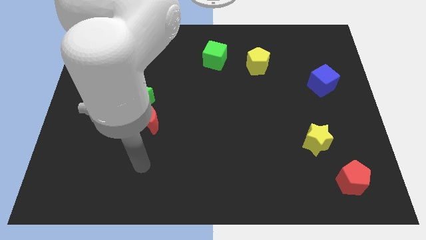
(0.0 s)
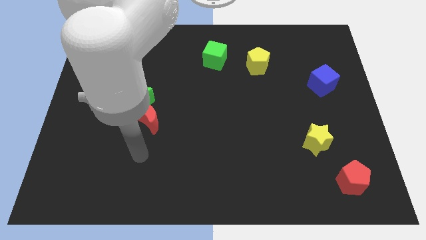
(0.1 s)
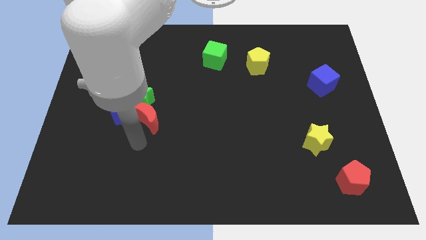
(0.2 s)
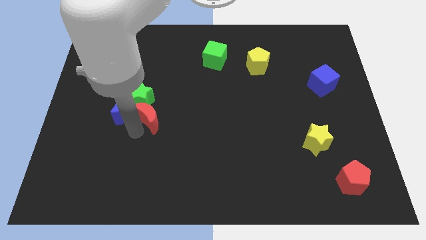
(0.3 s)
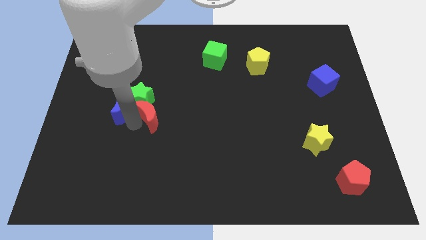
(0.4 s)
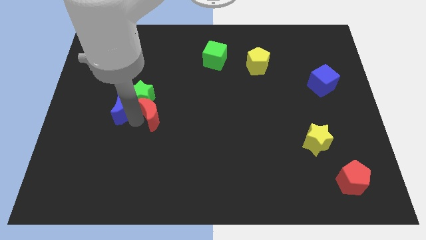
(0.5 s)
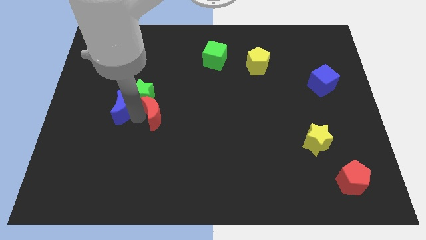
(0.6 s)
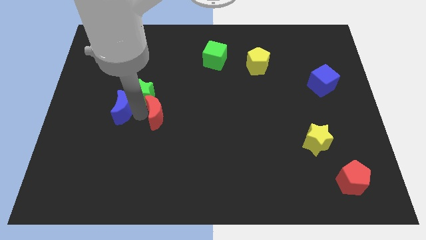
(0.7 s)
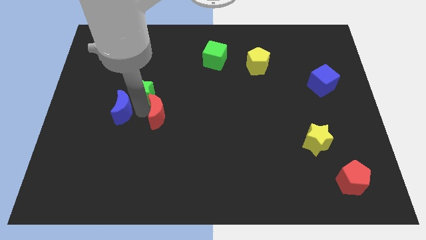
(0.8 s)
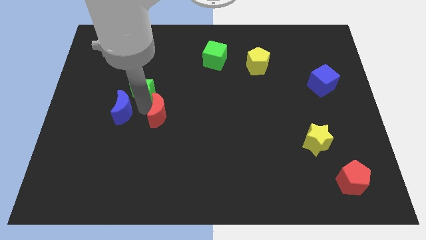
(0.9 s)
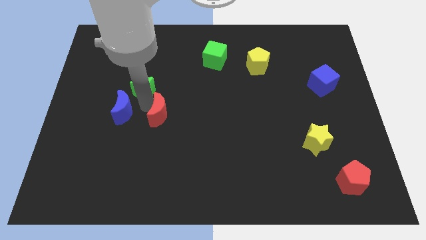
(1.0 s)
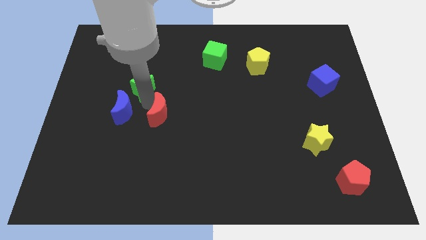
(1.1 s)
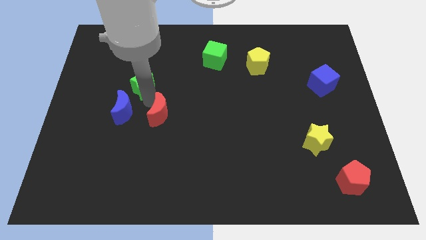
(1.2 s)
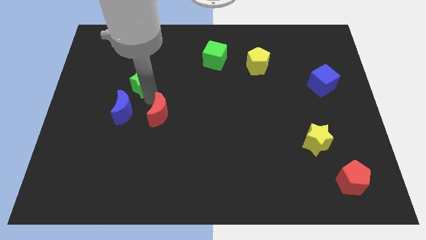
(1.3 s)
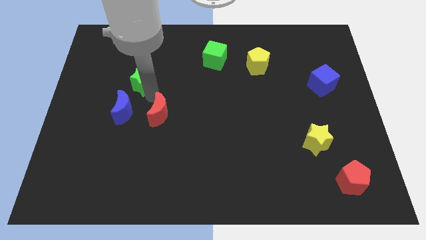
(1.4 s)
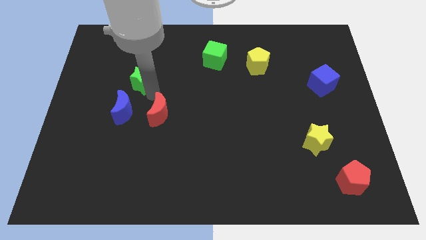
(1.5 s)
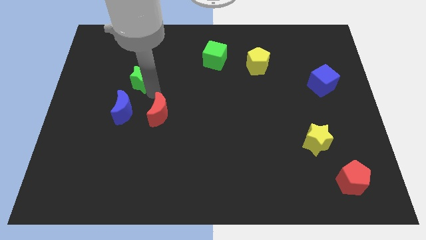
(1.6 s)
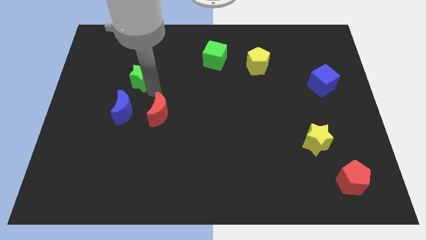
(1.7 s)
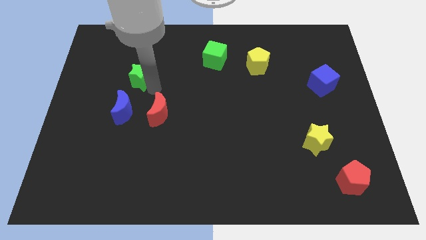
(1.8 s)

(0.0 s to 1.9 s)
pull the green star apart from the blue moon and red moon

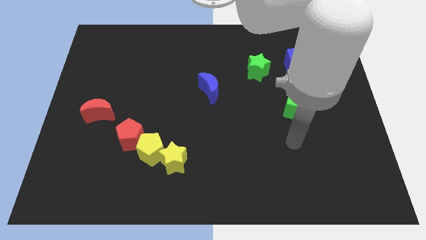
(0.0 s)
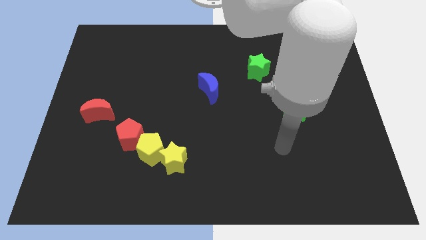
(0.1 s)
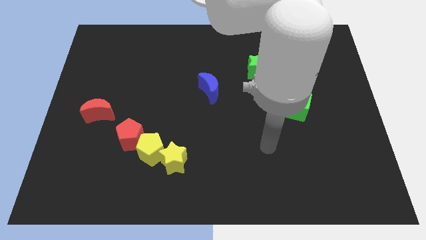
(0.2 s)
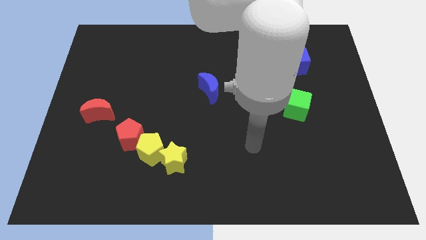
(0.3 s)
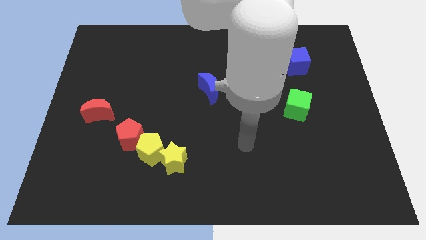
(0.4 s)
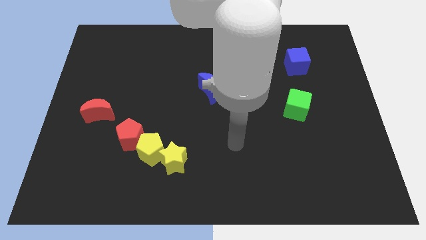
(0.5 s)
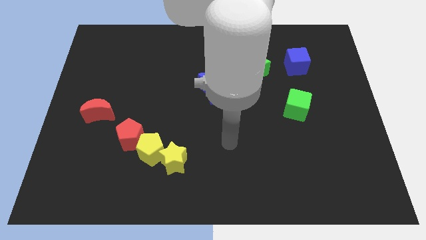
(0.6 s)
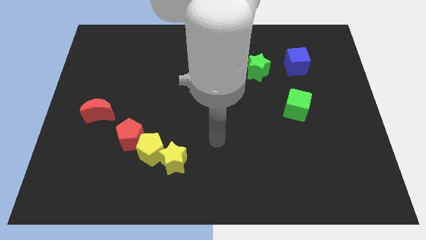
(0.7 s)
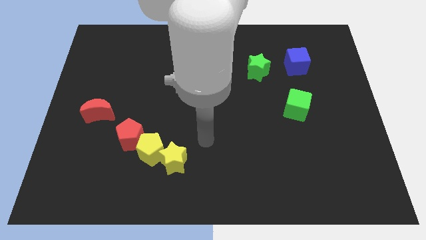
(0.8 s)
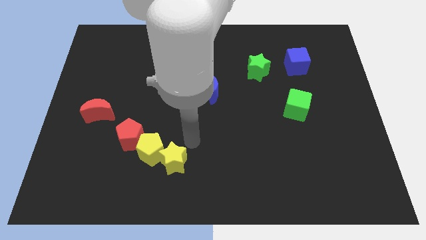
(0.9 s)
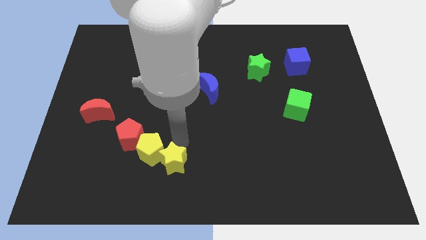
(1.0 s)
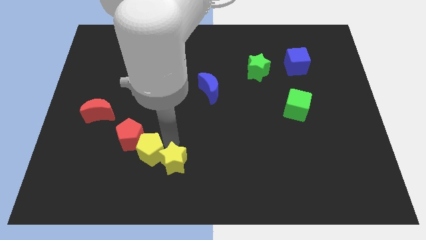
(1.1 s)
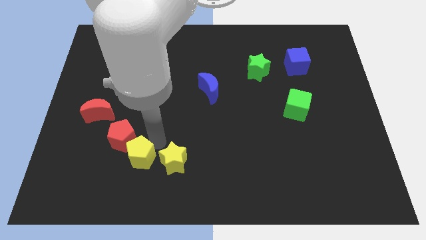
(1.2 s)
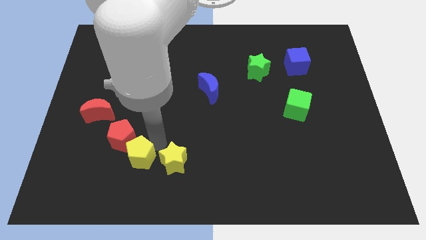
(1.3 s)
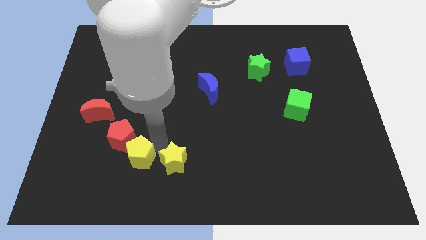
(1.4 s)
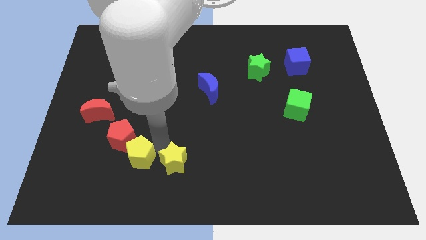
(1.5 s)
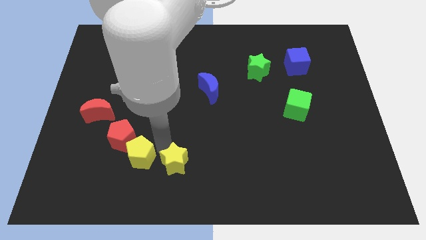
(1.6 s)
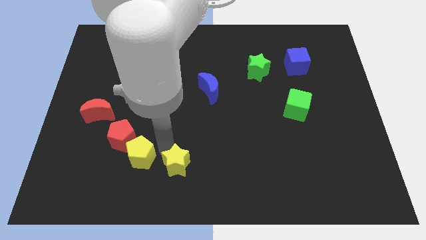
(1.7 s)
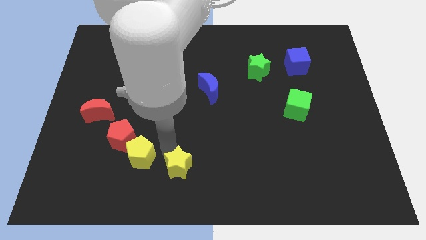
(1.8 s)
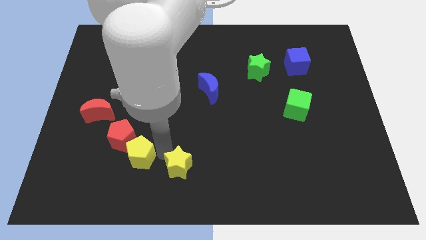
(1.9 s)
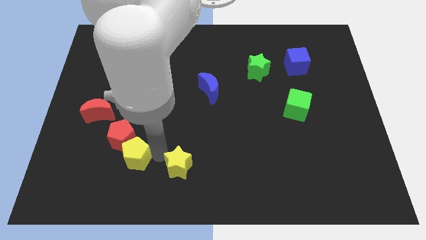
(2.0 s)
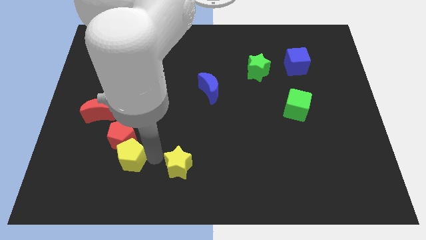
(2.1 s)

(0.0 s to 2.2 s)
separate the yellow star from the yellow pentagon

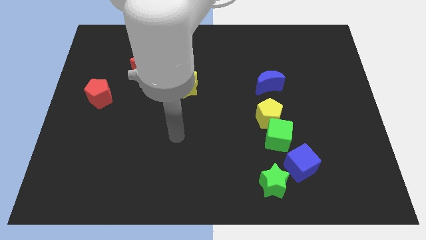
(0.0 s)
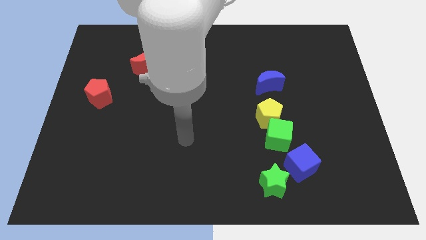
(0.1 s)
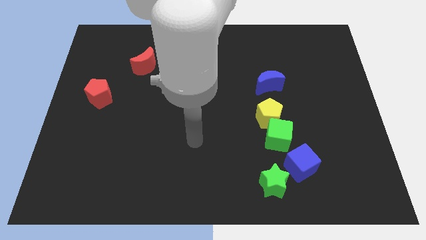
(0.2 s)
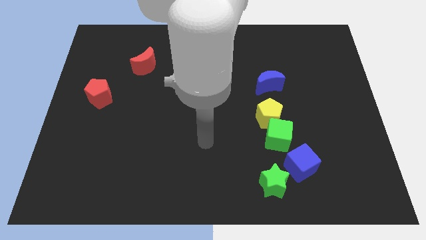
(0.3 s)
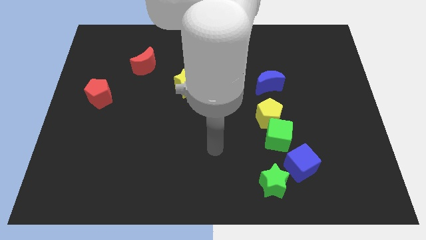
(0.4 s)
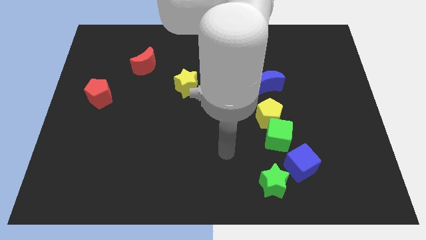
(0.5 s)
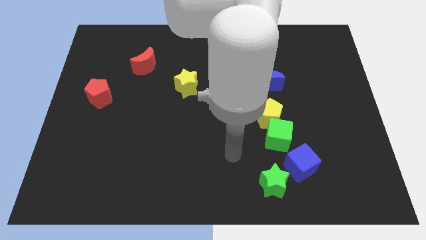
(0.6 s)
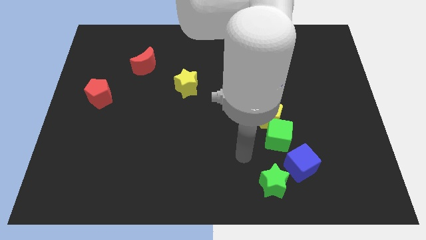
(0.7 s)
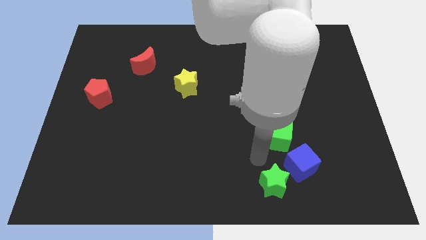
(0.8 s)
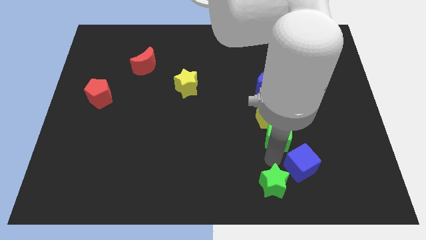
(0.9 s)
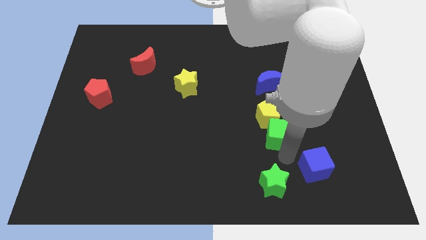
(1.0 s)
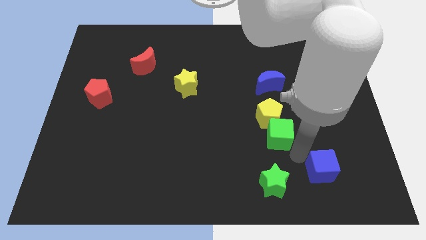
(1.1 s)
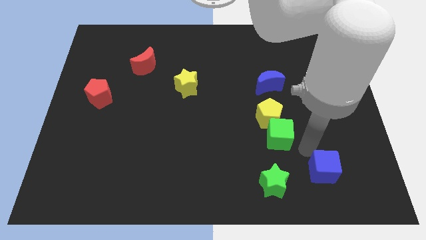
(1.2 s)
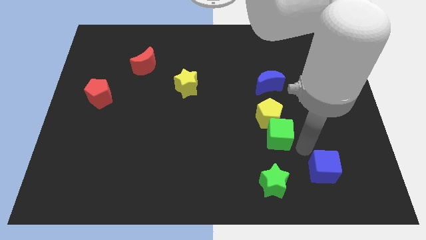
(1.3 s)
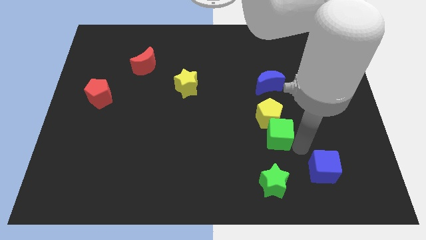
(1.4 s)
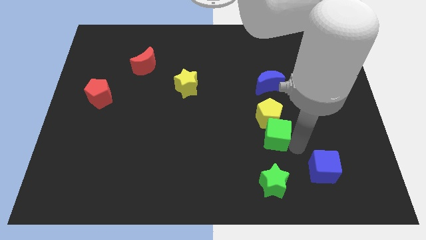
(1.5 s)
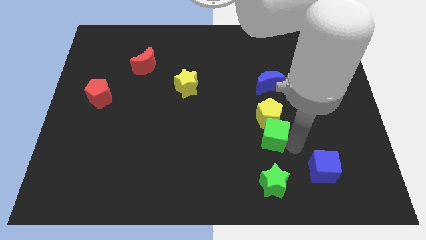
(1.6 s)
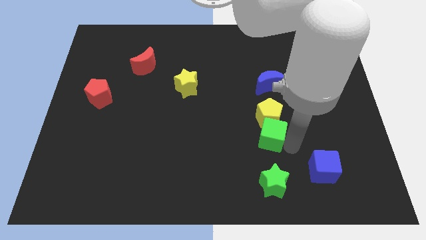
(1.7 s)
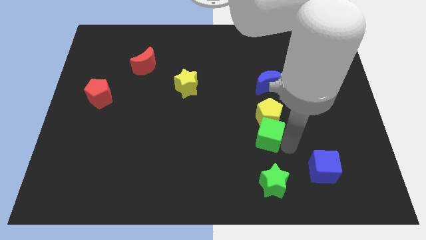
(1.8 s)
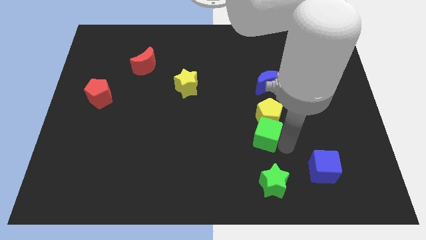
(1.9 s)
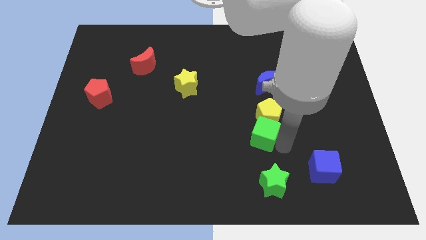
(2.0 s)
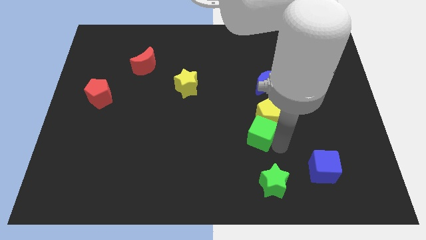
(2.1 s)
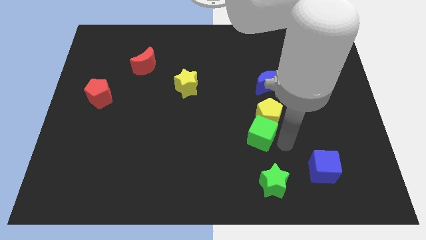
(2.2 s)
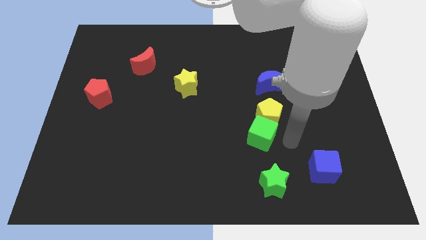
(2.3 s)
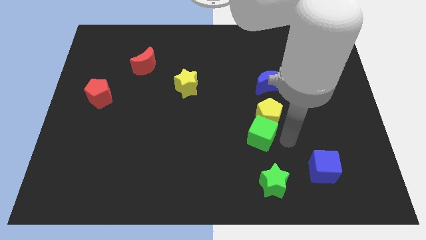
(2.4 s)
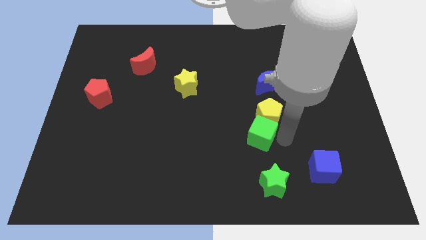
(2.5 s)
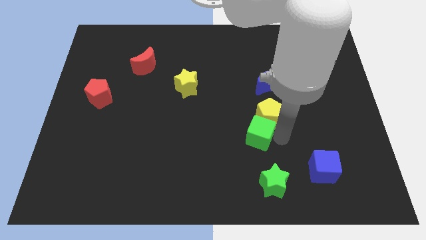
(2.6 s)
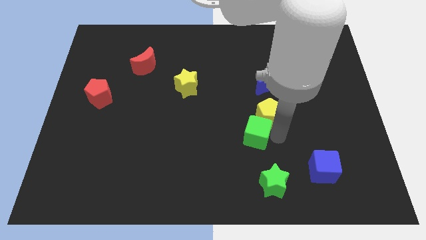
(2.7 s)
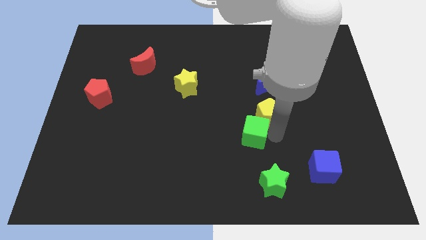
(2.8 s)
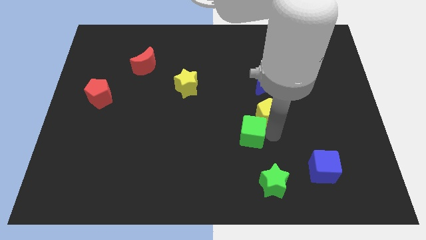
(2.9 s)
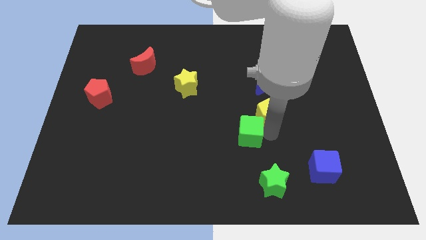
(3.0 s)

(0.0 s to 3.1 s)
move the green cube away from the yellow pentagon and blue cube

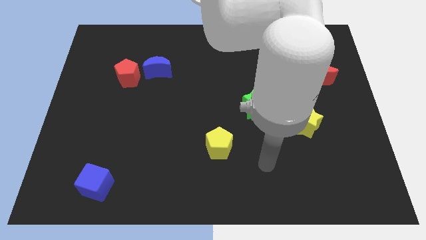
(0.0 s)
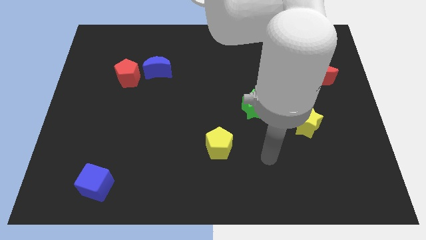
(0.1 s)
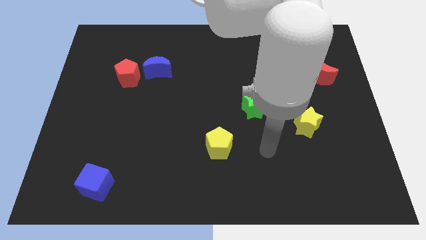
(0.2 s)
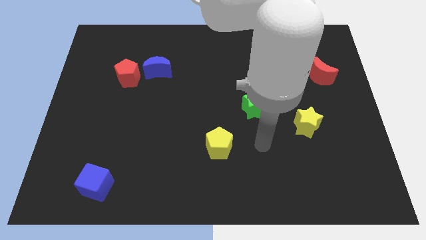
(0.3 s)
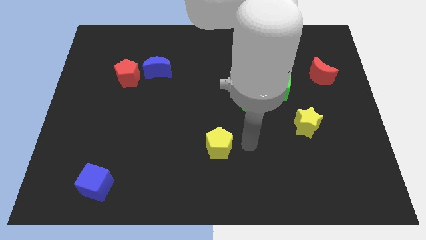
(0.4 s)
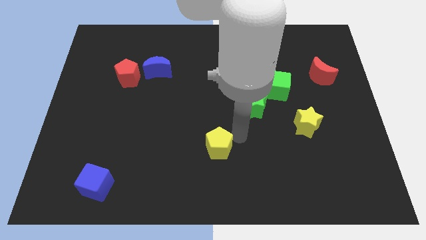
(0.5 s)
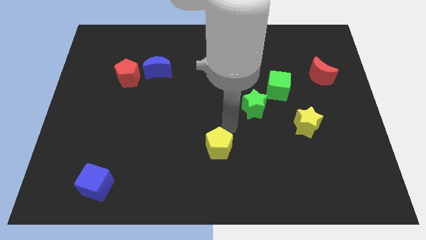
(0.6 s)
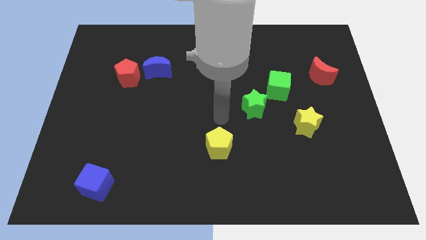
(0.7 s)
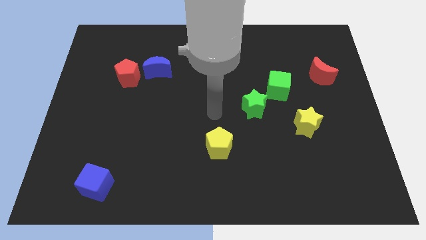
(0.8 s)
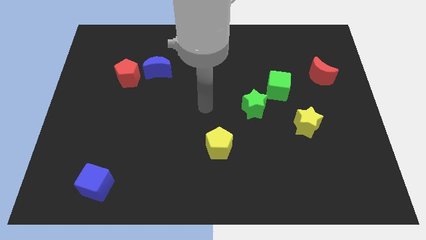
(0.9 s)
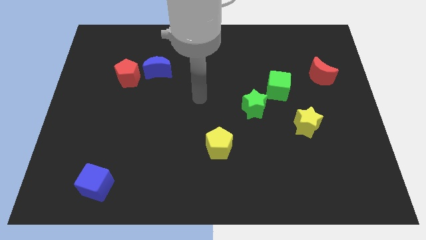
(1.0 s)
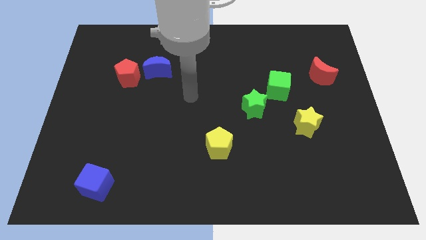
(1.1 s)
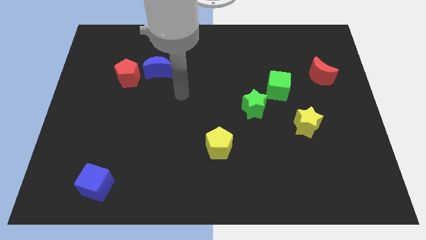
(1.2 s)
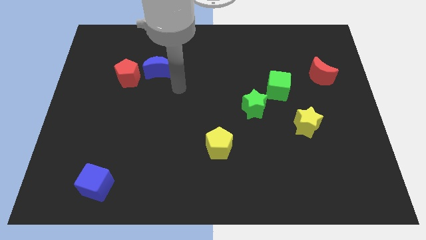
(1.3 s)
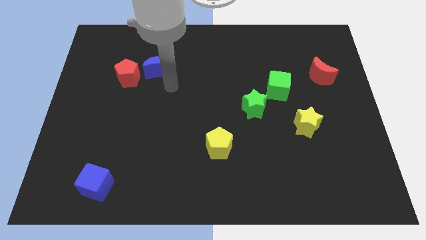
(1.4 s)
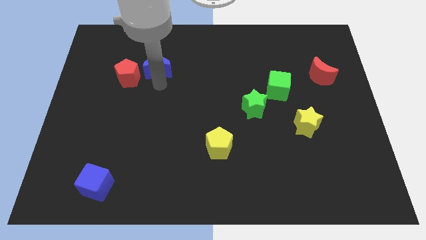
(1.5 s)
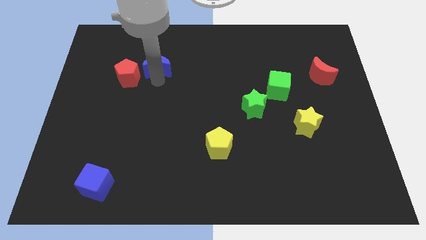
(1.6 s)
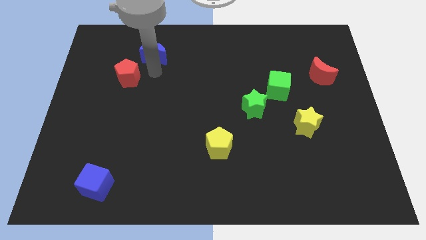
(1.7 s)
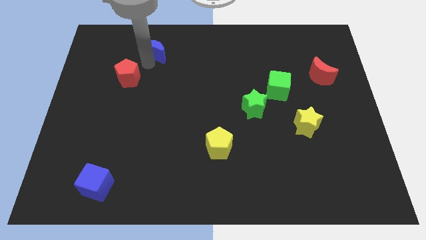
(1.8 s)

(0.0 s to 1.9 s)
move the red pentagon away from the blue moon

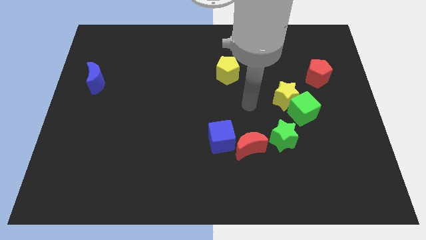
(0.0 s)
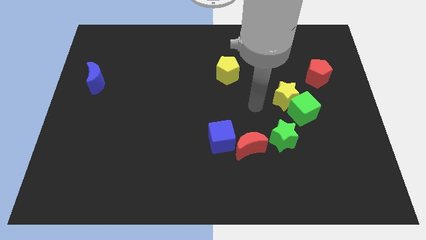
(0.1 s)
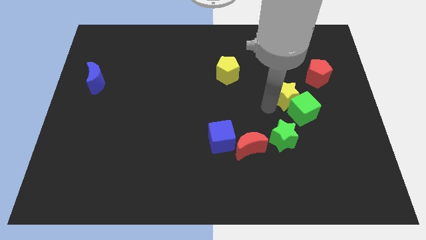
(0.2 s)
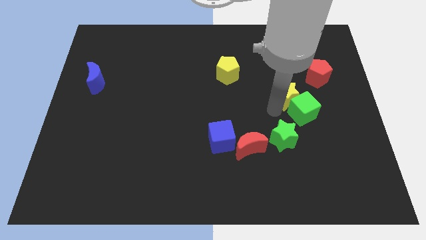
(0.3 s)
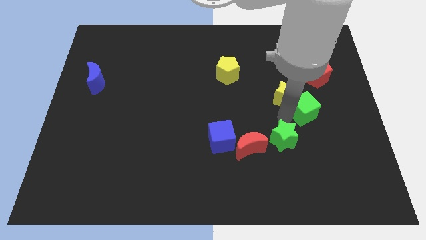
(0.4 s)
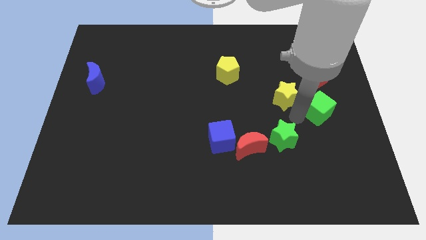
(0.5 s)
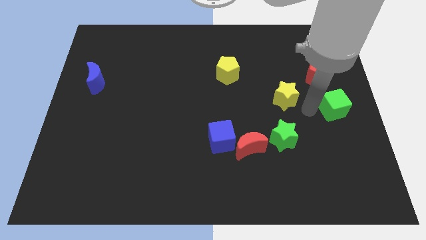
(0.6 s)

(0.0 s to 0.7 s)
move the yellow star away from the green cube
